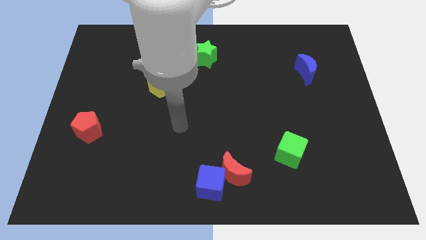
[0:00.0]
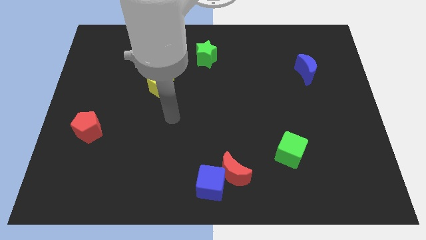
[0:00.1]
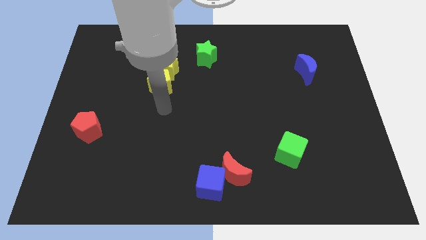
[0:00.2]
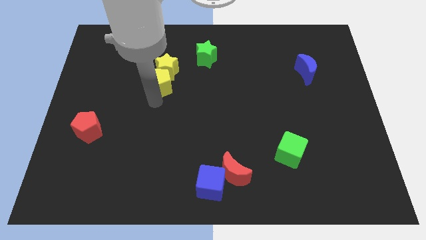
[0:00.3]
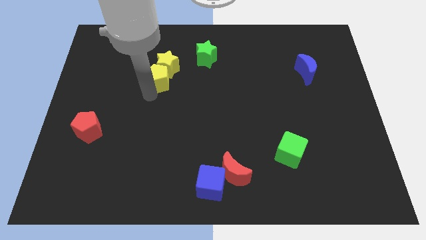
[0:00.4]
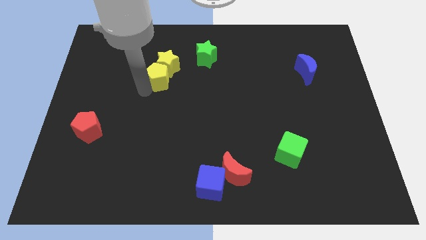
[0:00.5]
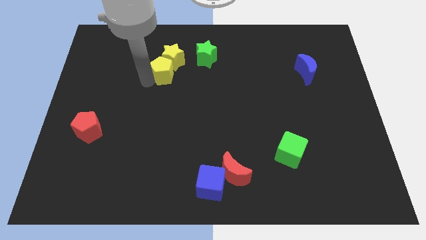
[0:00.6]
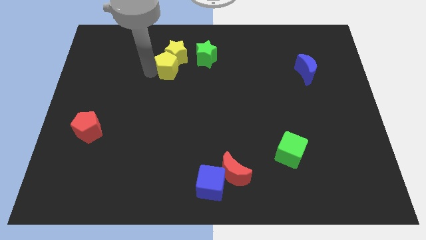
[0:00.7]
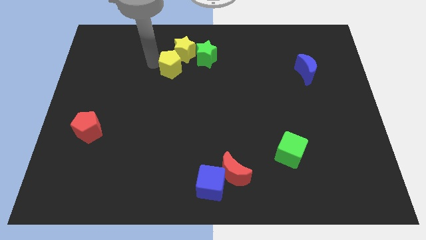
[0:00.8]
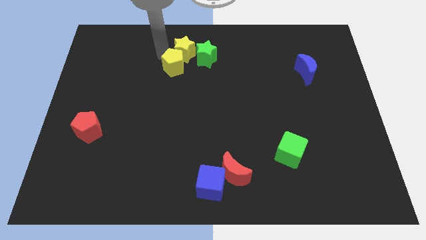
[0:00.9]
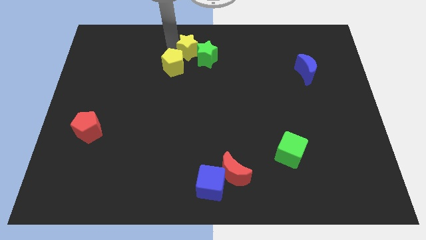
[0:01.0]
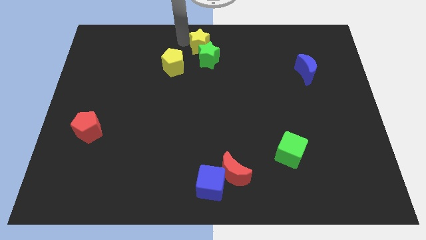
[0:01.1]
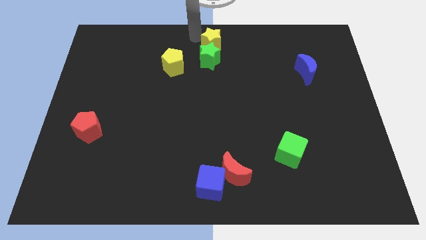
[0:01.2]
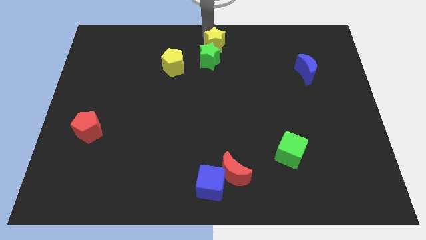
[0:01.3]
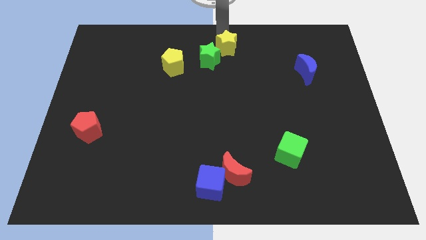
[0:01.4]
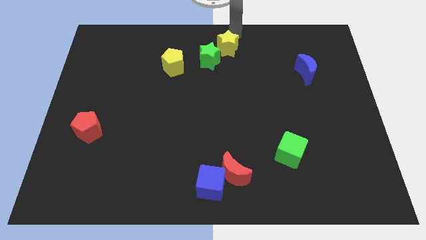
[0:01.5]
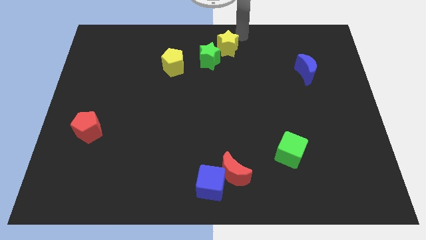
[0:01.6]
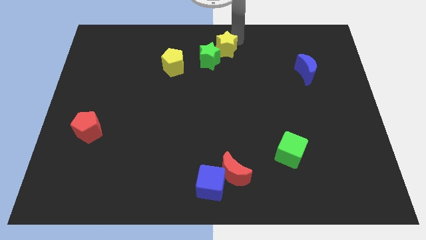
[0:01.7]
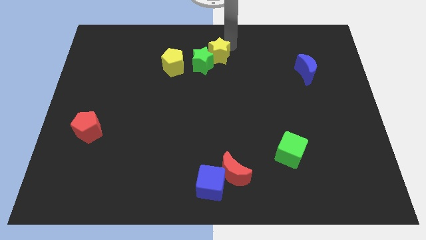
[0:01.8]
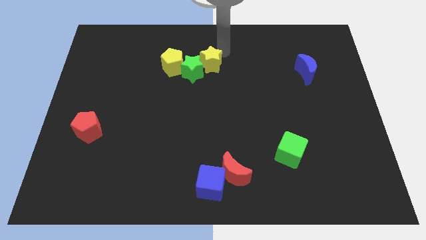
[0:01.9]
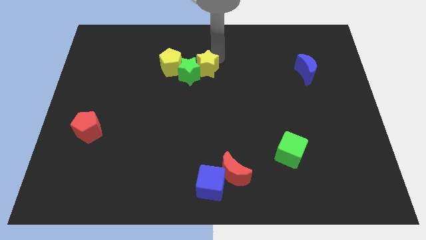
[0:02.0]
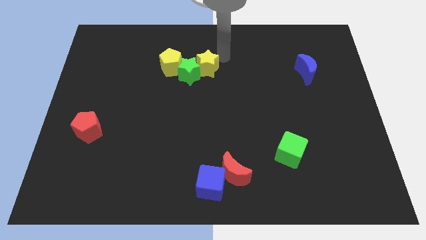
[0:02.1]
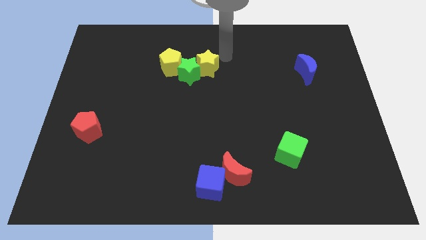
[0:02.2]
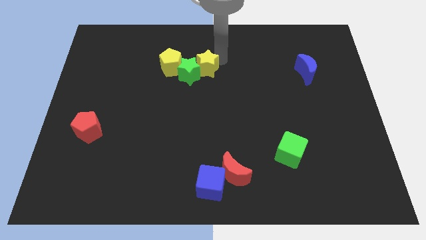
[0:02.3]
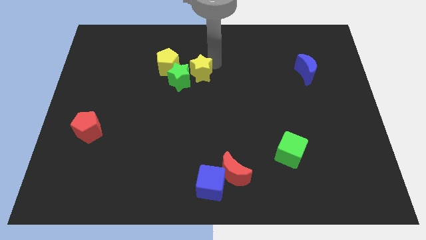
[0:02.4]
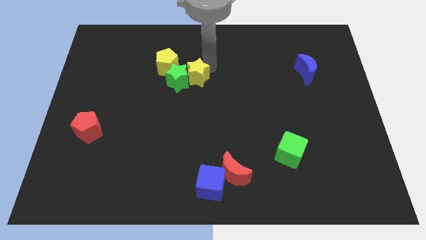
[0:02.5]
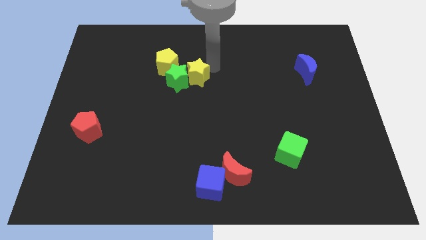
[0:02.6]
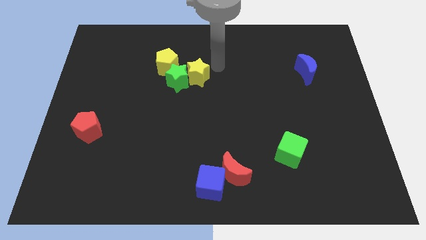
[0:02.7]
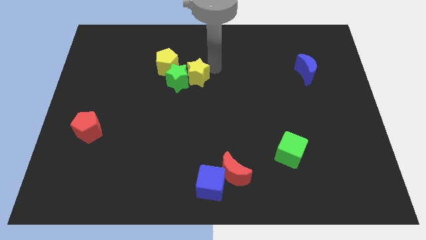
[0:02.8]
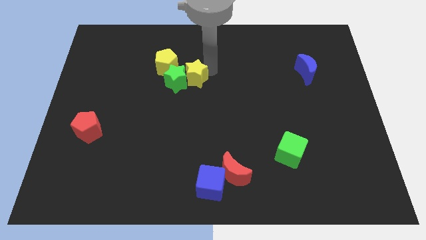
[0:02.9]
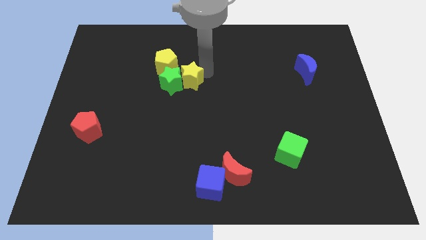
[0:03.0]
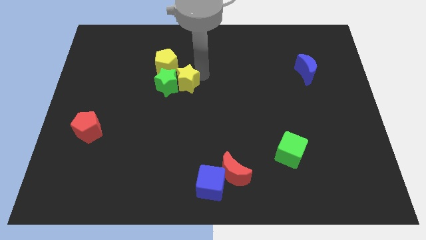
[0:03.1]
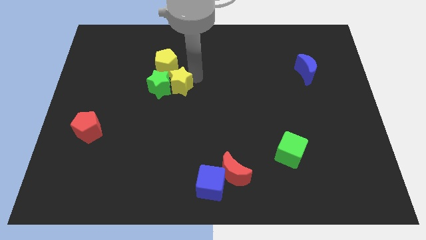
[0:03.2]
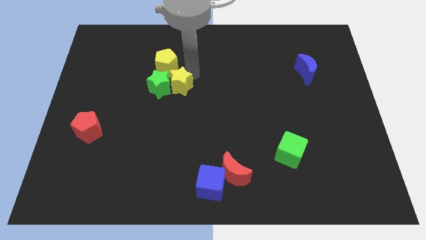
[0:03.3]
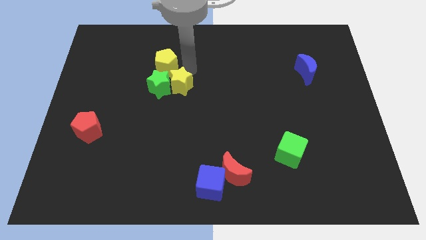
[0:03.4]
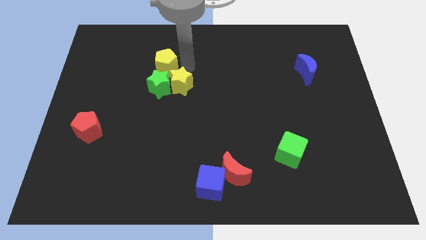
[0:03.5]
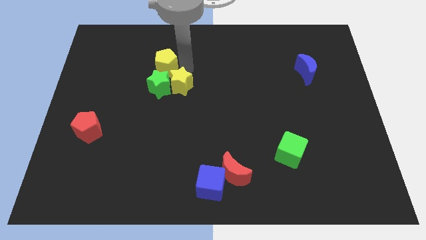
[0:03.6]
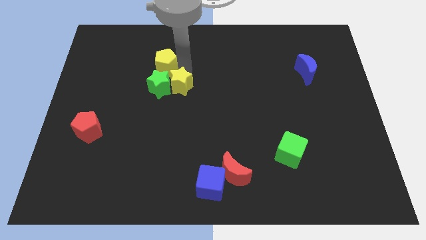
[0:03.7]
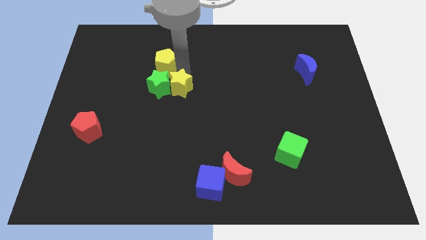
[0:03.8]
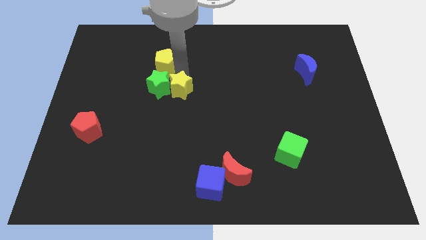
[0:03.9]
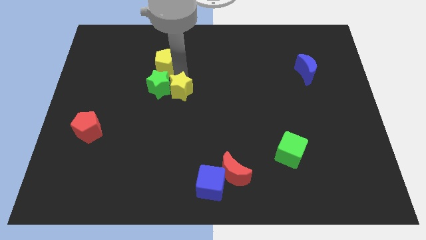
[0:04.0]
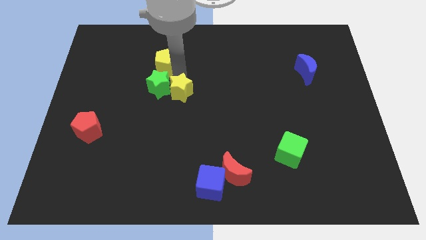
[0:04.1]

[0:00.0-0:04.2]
slide the yellow star a bit downwards

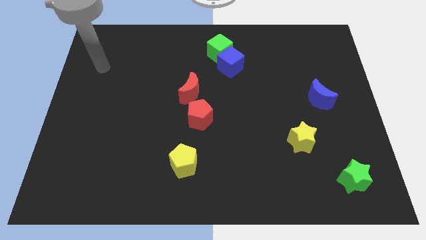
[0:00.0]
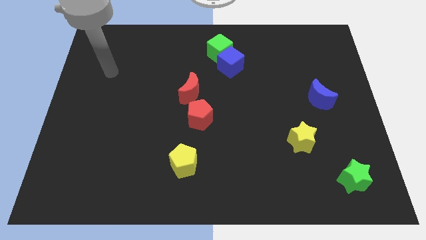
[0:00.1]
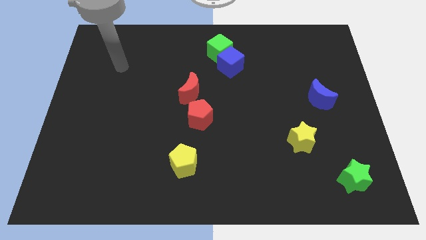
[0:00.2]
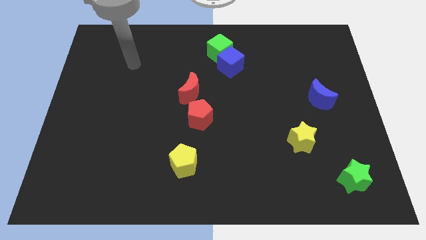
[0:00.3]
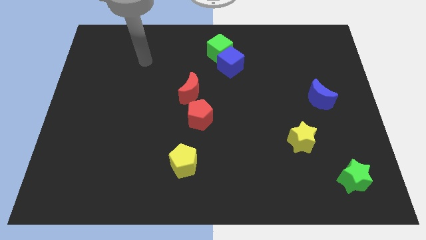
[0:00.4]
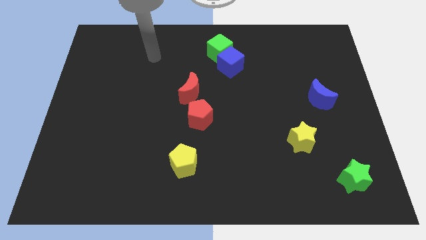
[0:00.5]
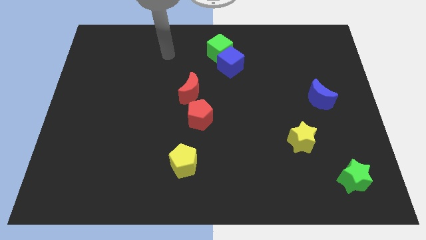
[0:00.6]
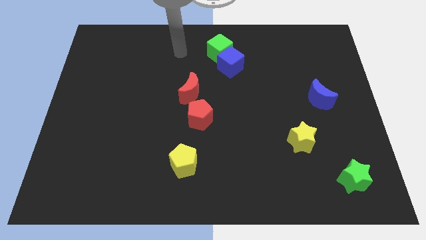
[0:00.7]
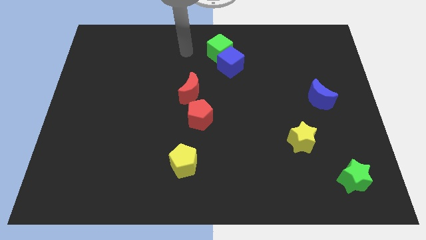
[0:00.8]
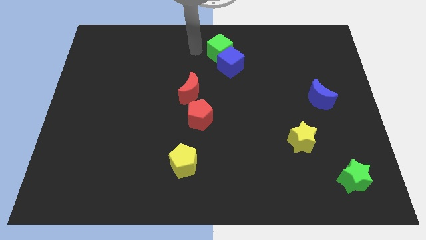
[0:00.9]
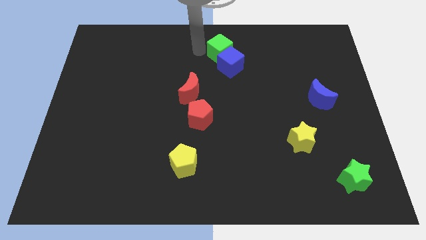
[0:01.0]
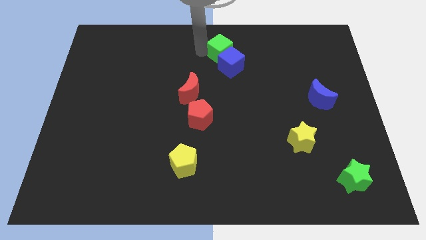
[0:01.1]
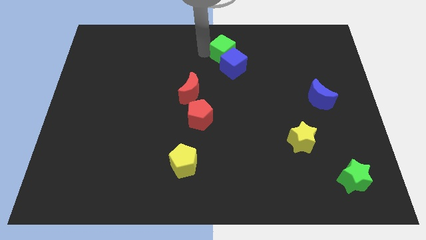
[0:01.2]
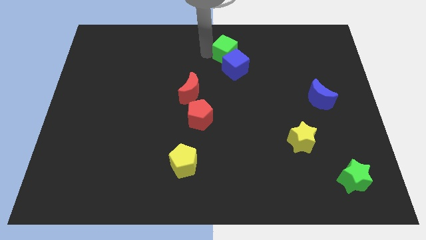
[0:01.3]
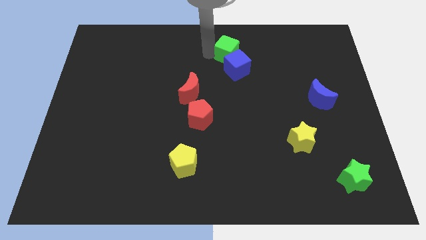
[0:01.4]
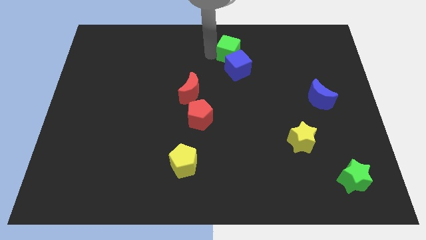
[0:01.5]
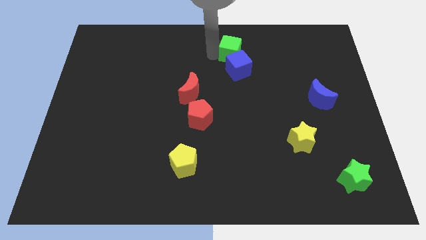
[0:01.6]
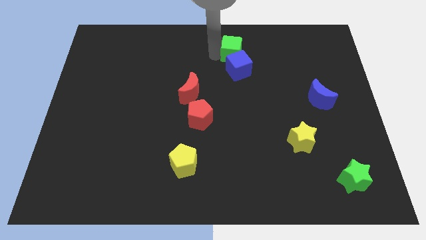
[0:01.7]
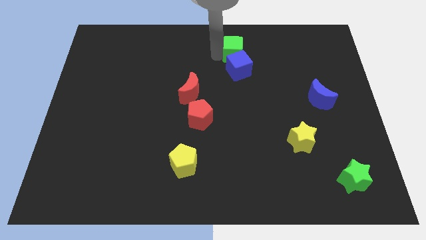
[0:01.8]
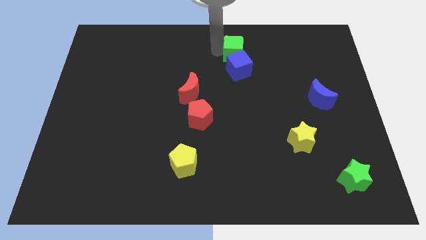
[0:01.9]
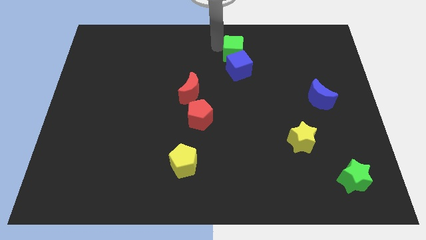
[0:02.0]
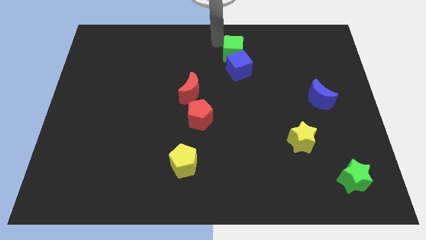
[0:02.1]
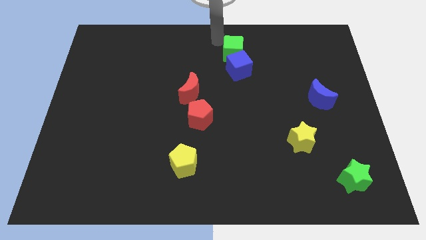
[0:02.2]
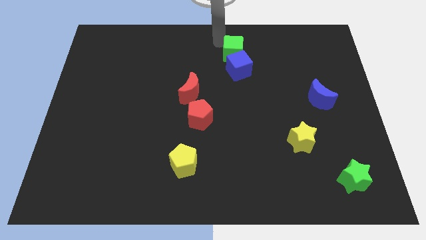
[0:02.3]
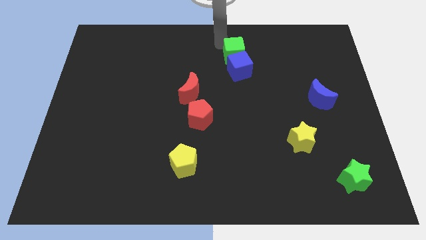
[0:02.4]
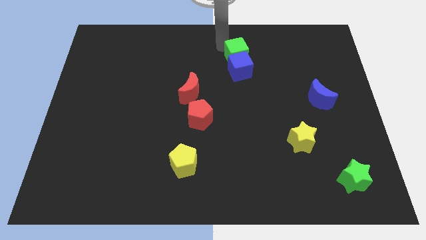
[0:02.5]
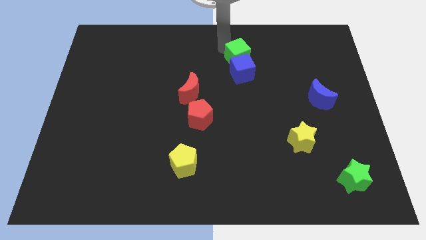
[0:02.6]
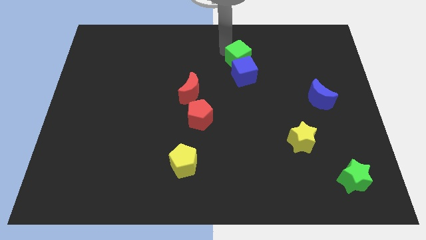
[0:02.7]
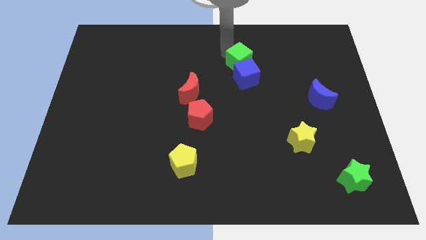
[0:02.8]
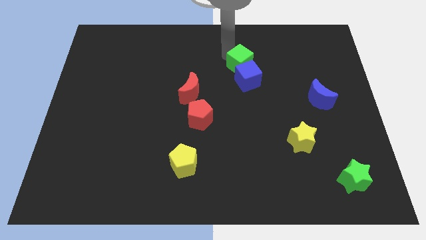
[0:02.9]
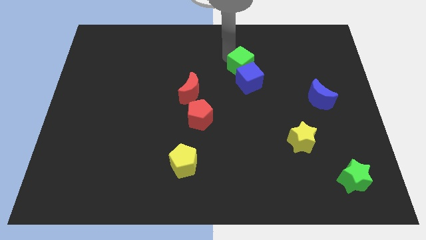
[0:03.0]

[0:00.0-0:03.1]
slide the green cube slightly down and to the right diagonally

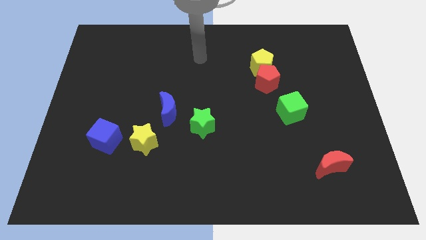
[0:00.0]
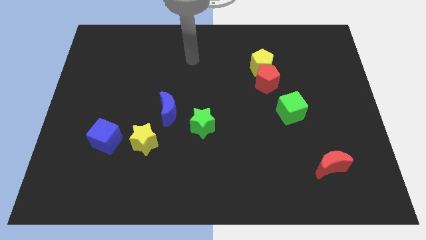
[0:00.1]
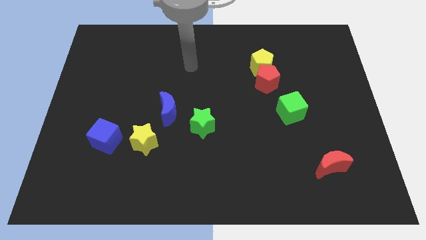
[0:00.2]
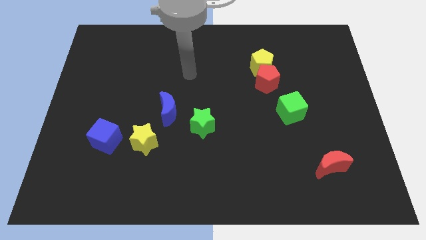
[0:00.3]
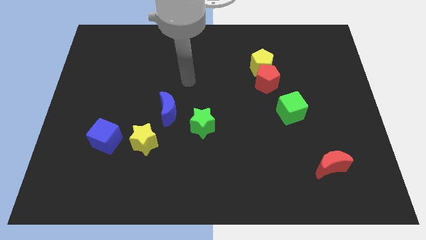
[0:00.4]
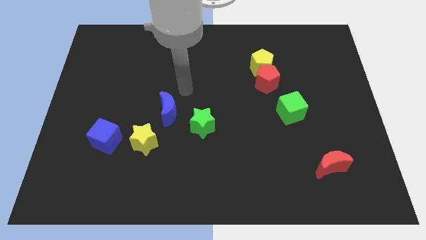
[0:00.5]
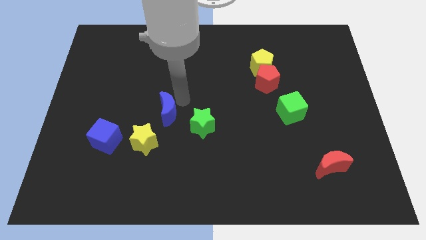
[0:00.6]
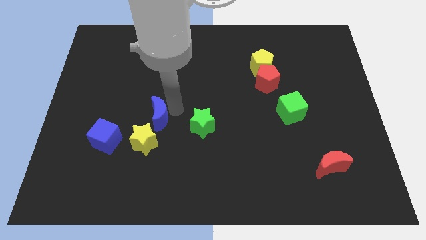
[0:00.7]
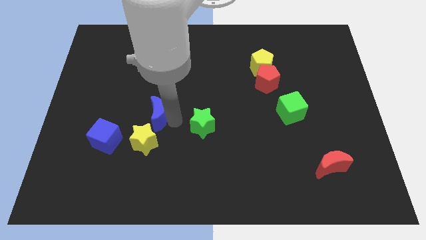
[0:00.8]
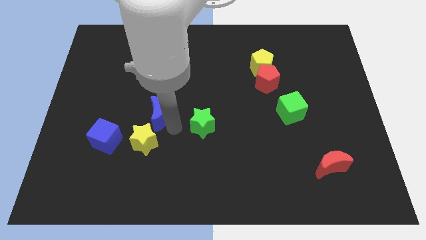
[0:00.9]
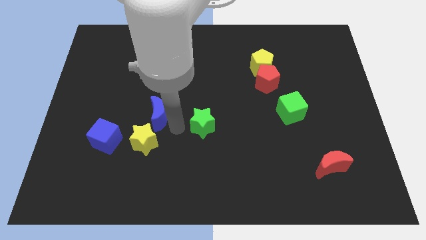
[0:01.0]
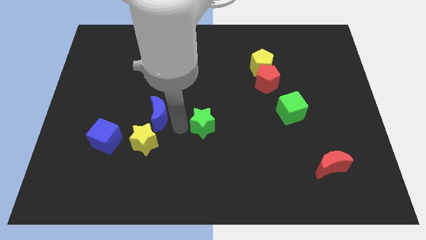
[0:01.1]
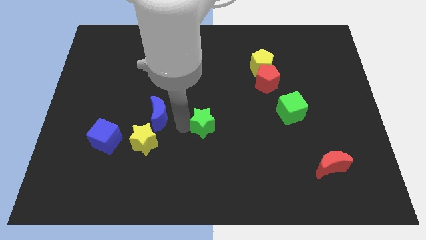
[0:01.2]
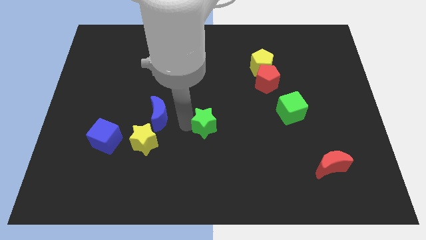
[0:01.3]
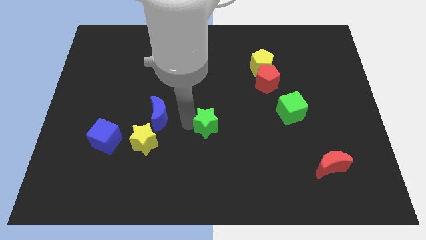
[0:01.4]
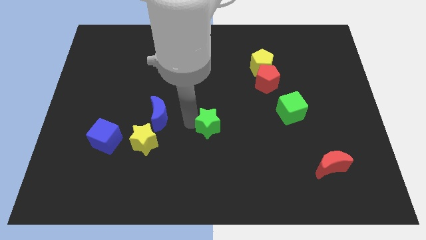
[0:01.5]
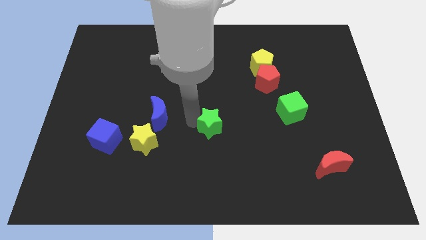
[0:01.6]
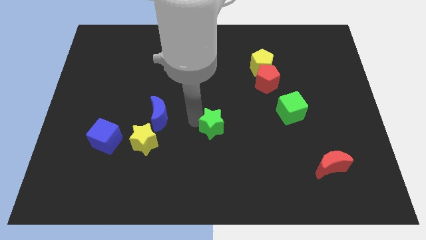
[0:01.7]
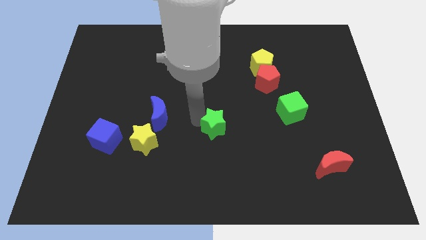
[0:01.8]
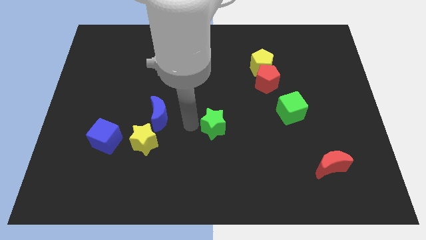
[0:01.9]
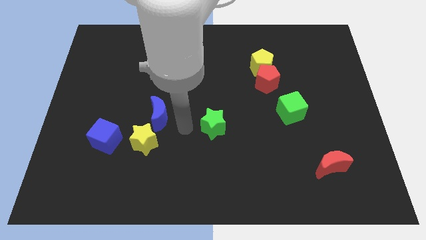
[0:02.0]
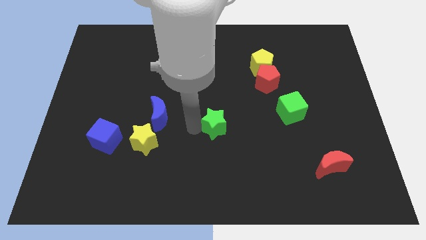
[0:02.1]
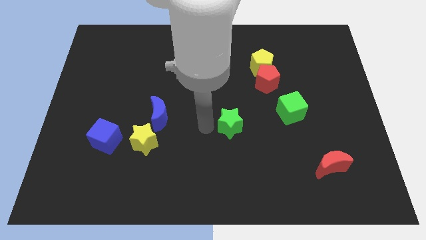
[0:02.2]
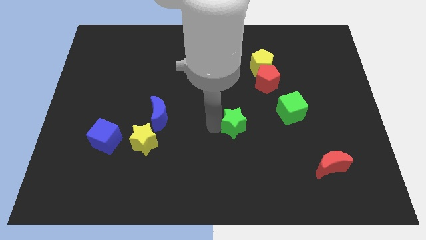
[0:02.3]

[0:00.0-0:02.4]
slide the green star right a little bit
